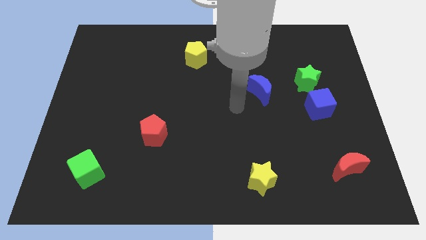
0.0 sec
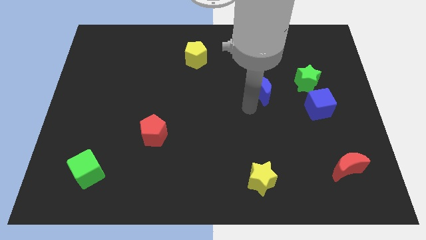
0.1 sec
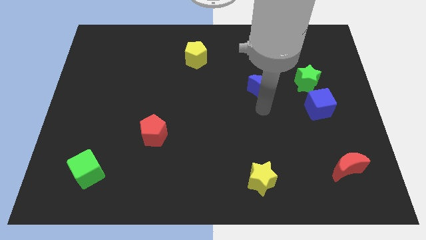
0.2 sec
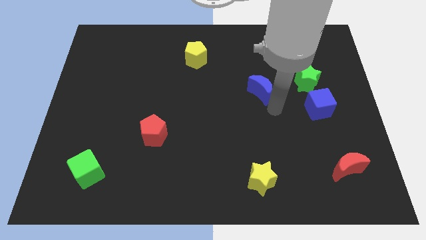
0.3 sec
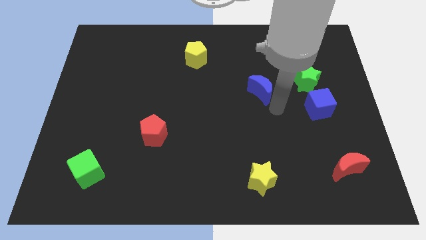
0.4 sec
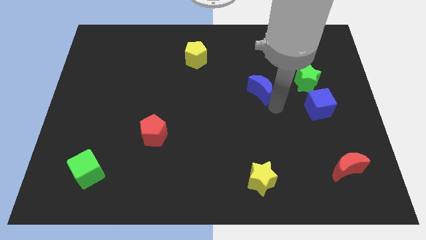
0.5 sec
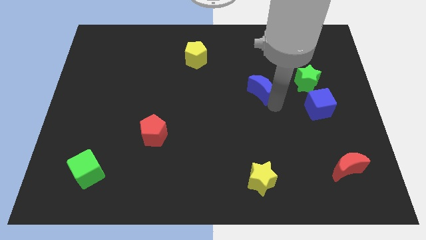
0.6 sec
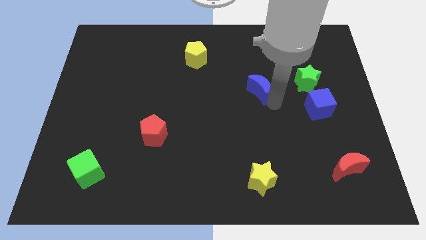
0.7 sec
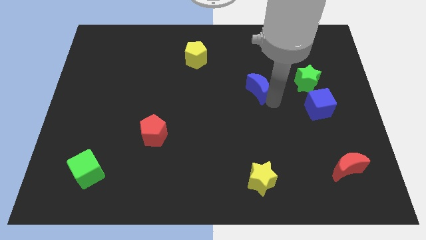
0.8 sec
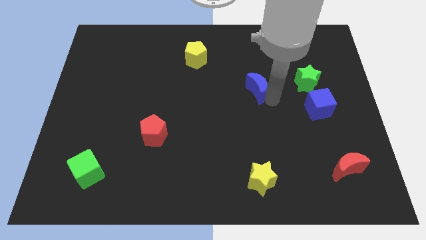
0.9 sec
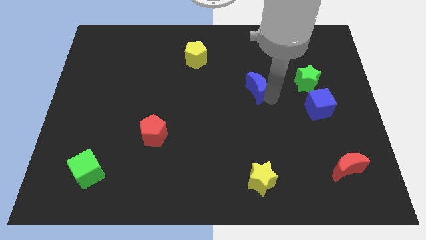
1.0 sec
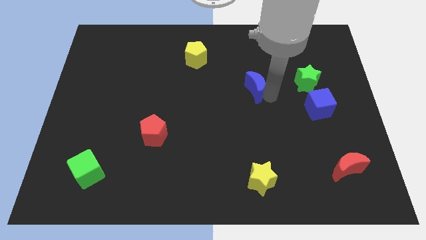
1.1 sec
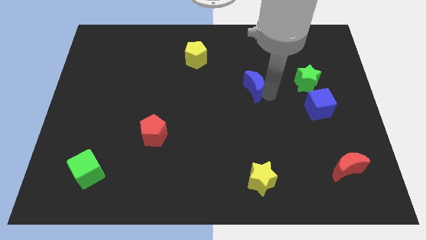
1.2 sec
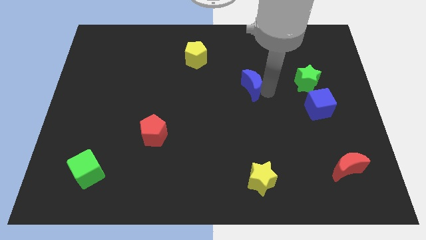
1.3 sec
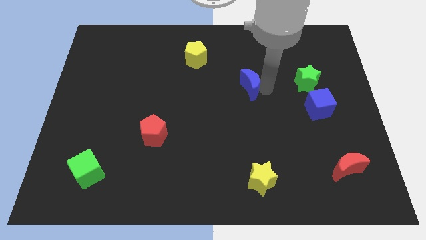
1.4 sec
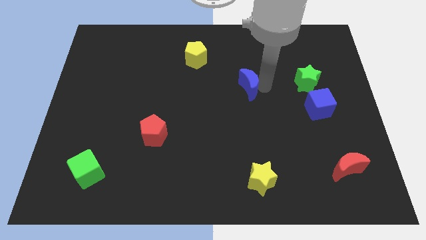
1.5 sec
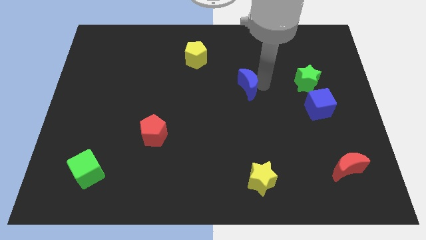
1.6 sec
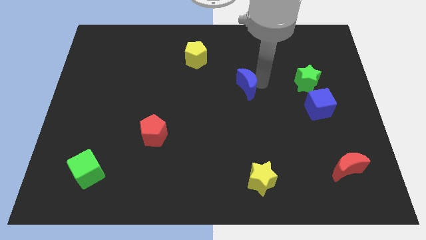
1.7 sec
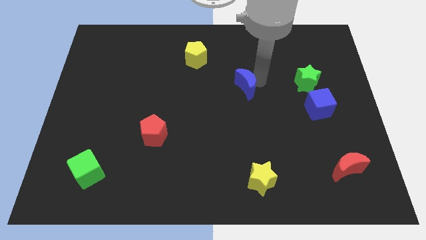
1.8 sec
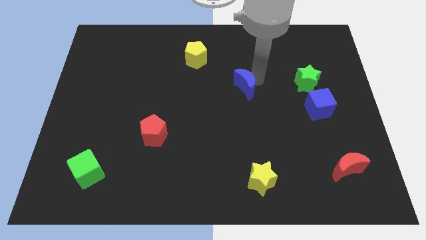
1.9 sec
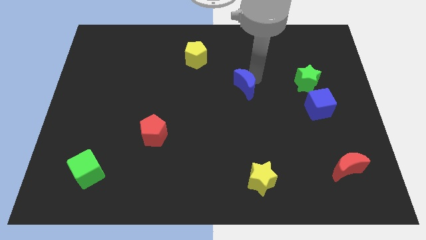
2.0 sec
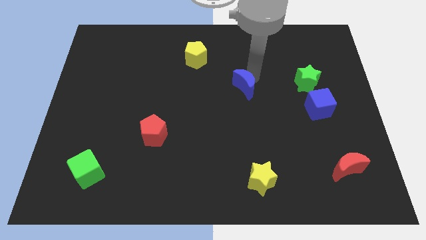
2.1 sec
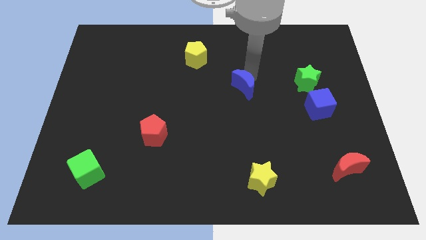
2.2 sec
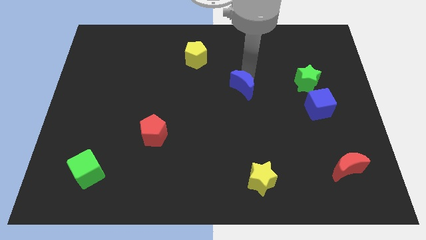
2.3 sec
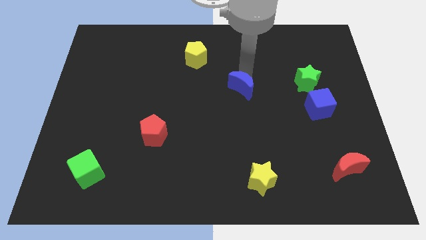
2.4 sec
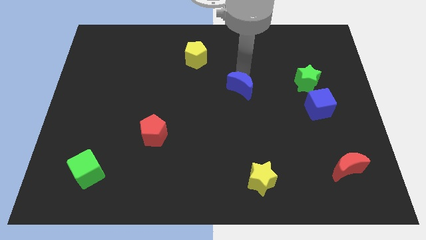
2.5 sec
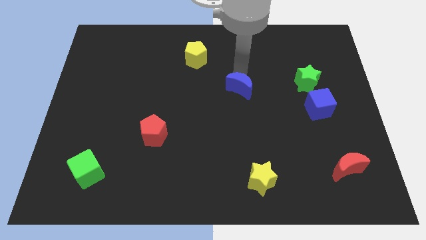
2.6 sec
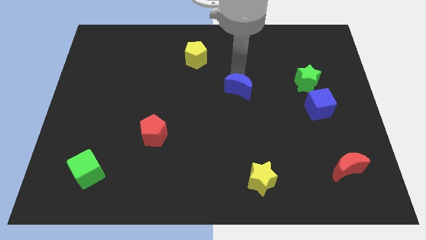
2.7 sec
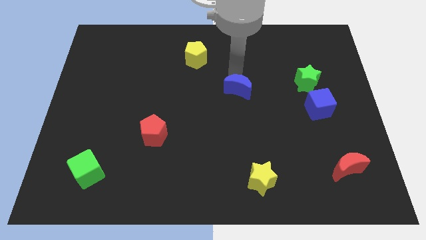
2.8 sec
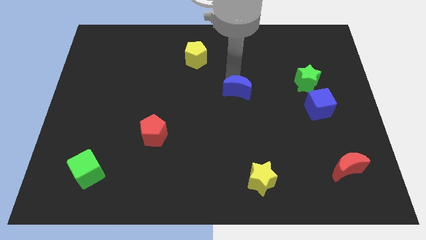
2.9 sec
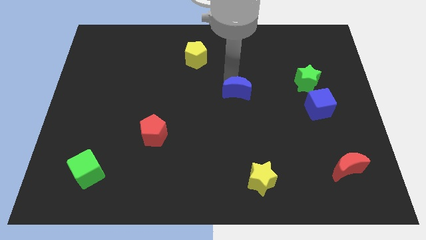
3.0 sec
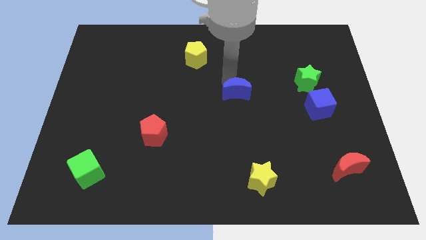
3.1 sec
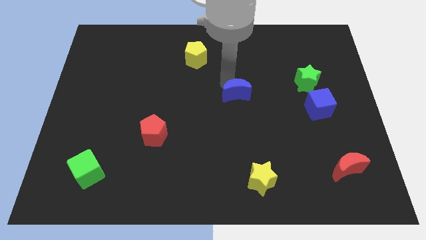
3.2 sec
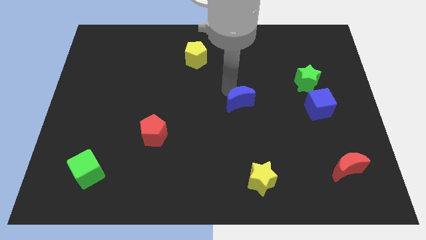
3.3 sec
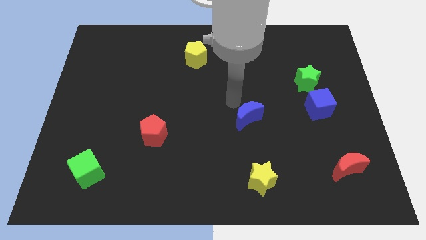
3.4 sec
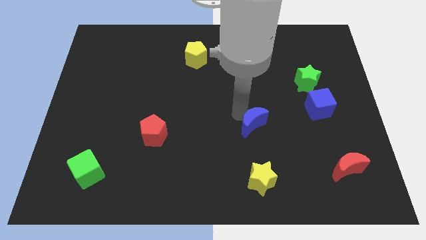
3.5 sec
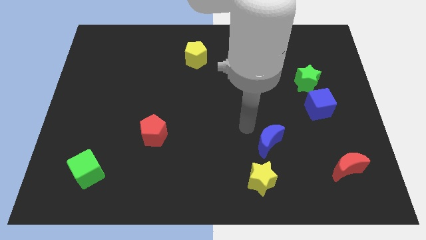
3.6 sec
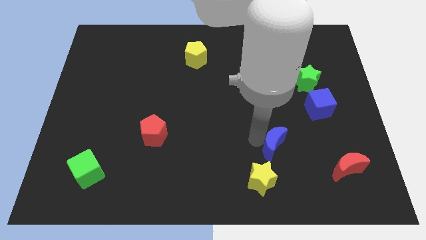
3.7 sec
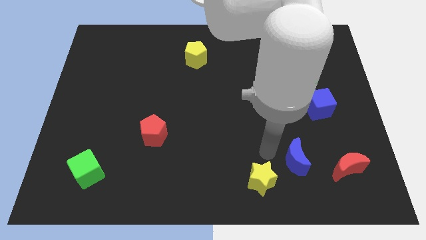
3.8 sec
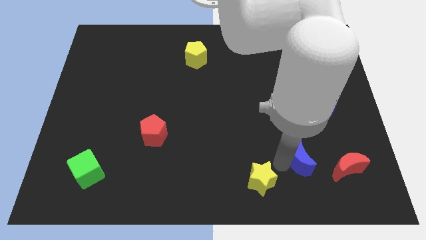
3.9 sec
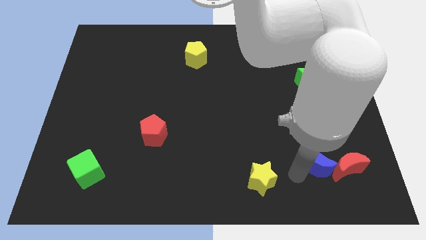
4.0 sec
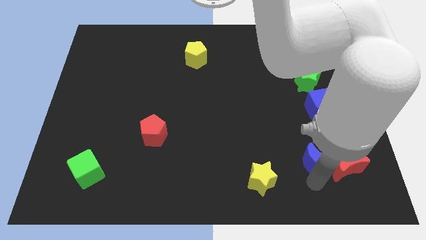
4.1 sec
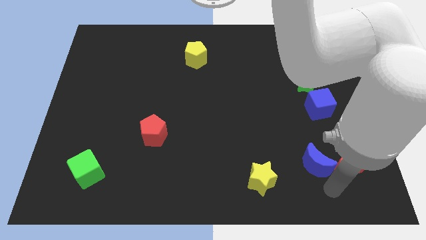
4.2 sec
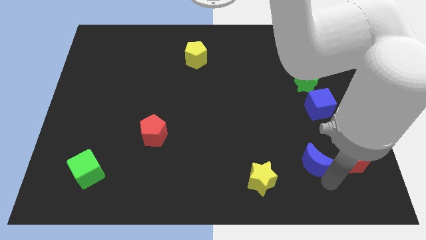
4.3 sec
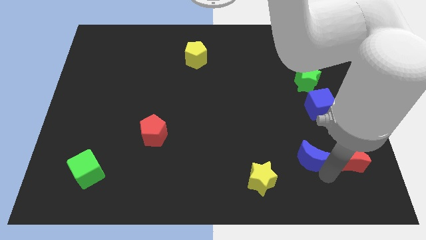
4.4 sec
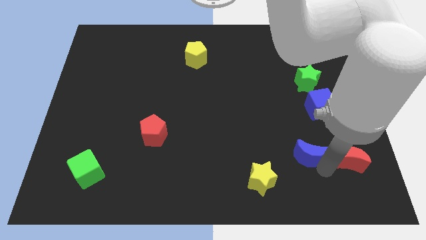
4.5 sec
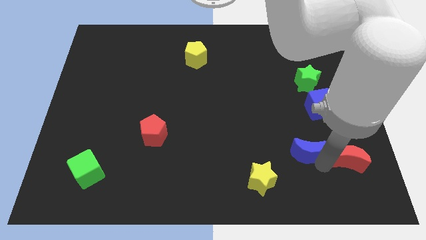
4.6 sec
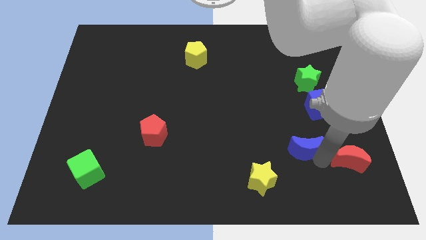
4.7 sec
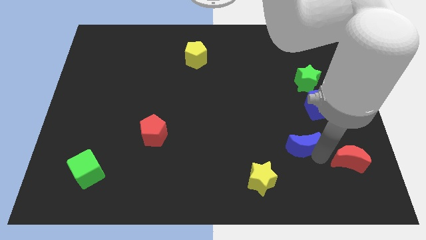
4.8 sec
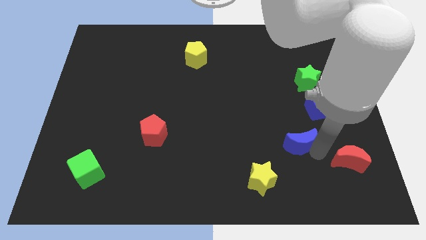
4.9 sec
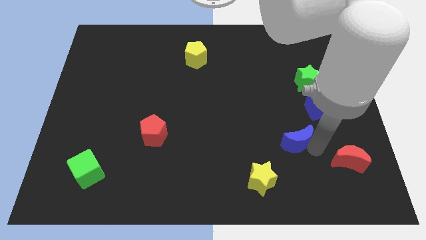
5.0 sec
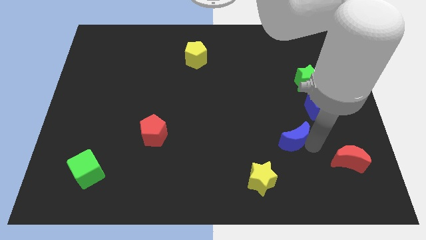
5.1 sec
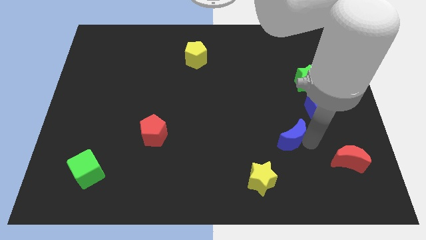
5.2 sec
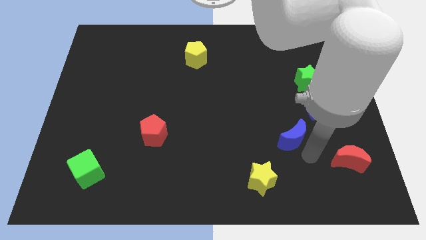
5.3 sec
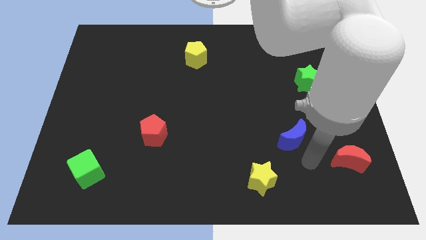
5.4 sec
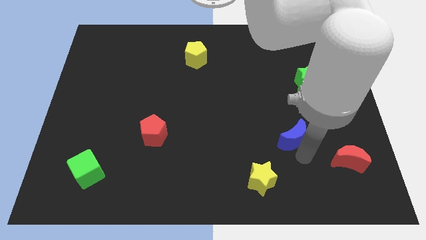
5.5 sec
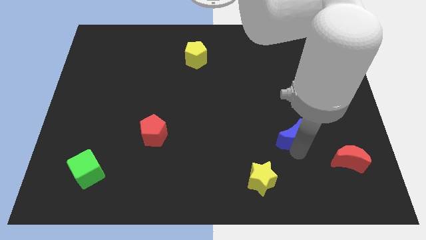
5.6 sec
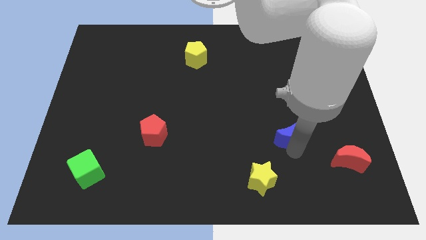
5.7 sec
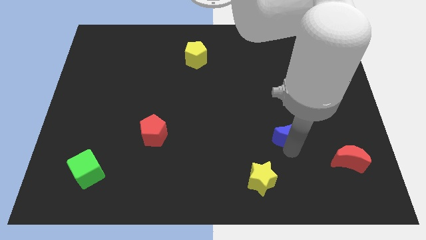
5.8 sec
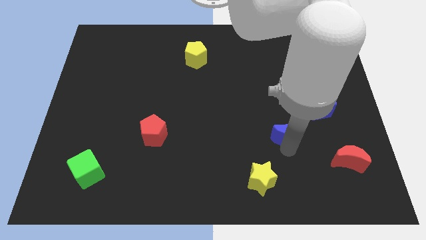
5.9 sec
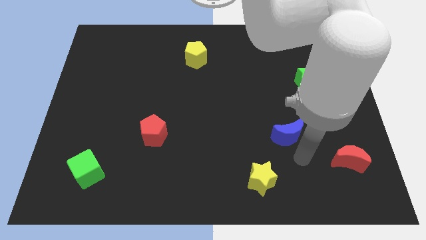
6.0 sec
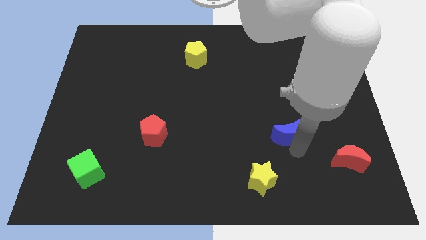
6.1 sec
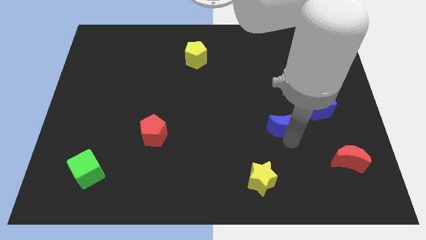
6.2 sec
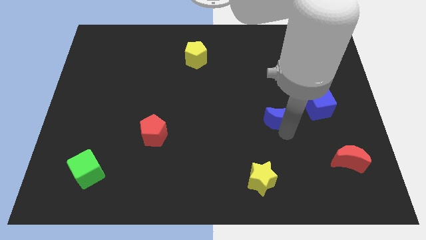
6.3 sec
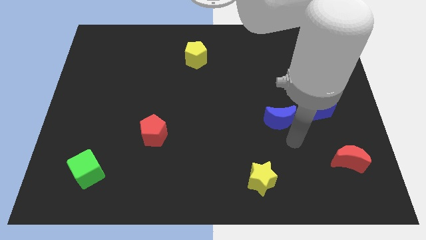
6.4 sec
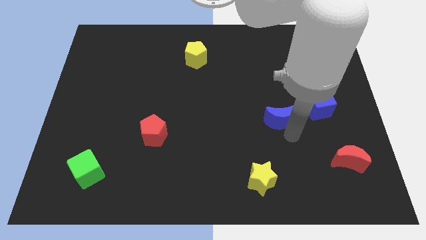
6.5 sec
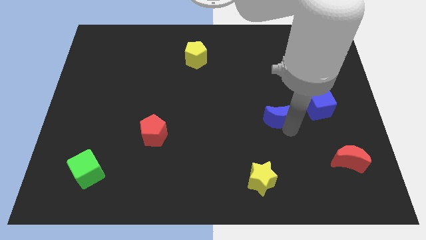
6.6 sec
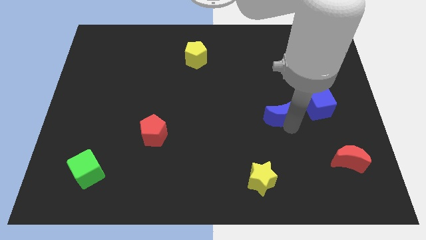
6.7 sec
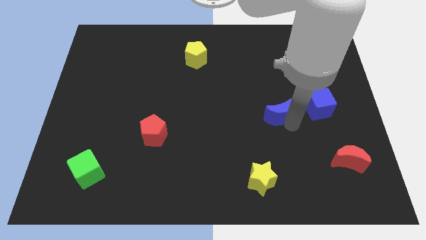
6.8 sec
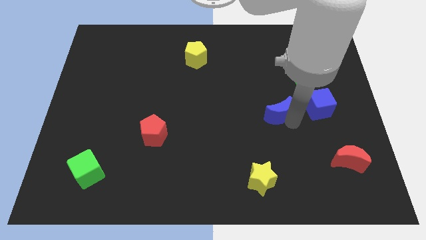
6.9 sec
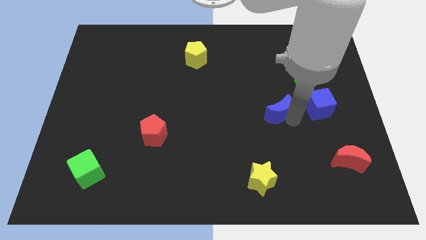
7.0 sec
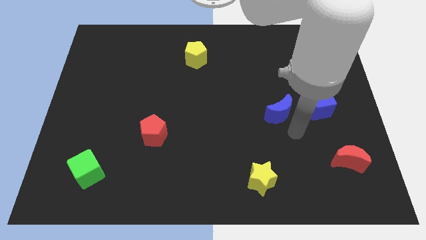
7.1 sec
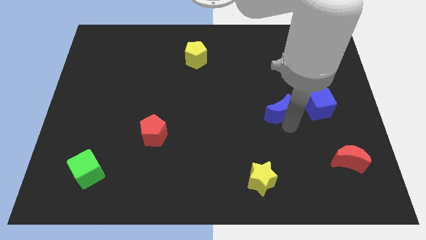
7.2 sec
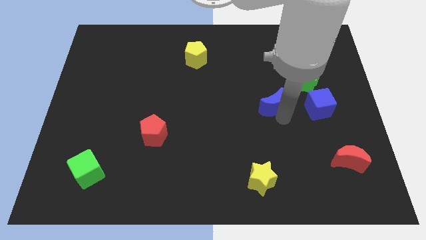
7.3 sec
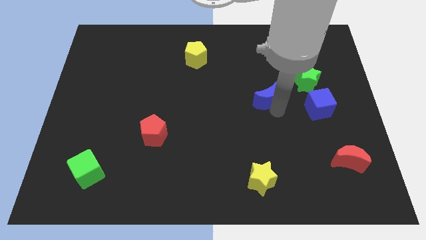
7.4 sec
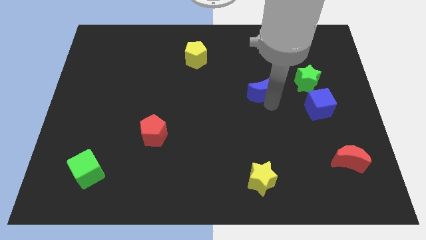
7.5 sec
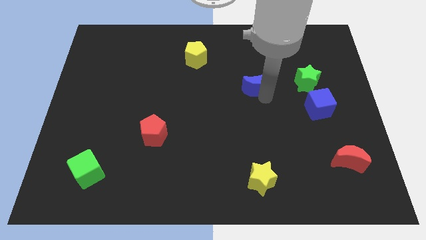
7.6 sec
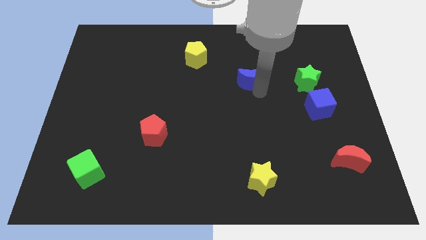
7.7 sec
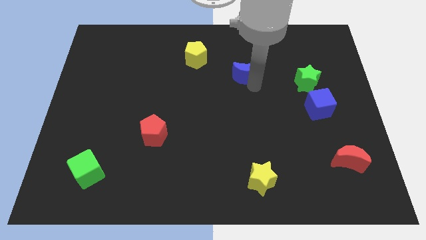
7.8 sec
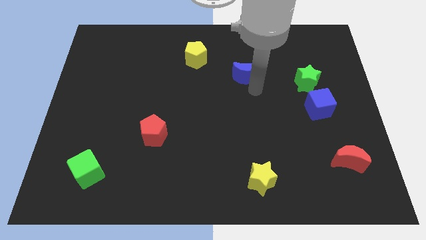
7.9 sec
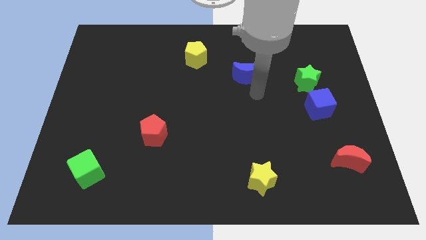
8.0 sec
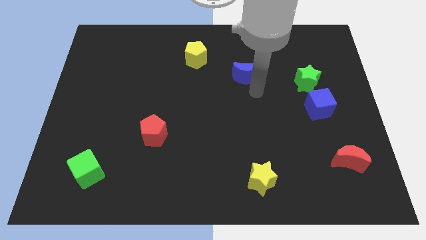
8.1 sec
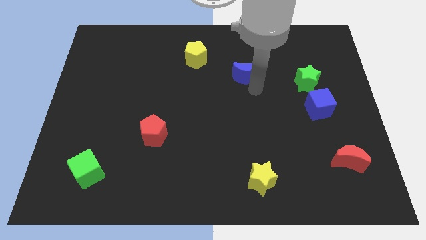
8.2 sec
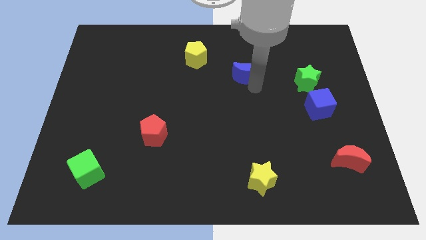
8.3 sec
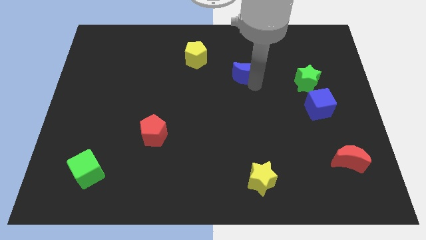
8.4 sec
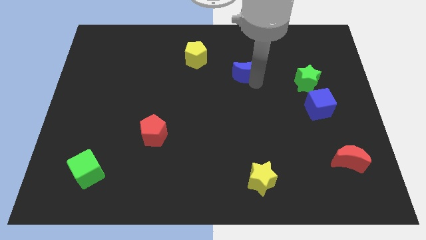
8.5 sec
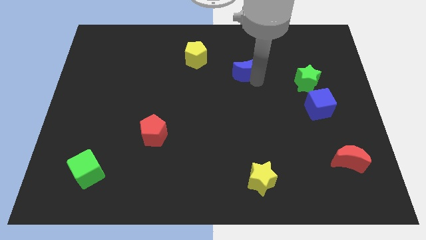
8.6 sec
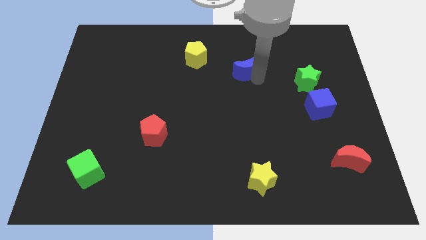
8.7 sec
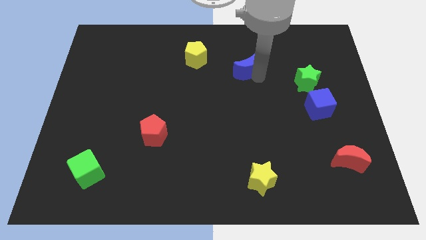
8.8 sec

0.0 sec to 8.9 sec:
put the blue moon to the right of the yellow pentagon
